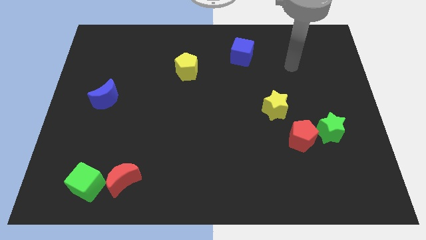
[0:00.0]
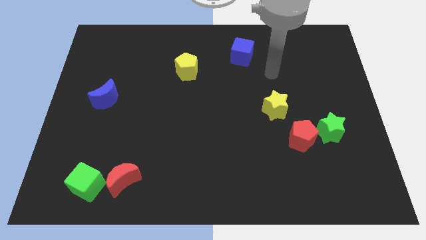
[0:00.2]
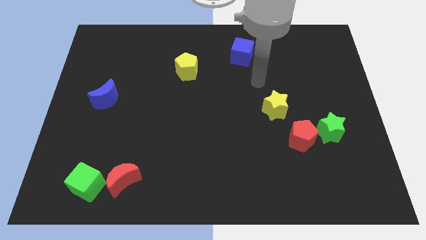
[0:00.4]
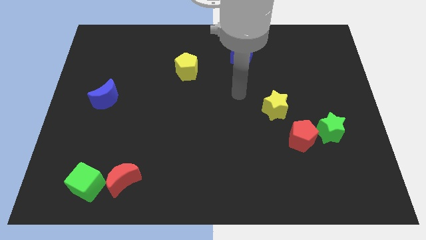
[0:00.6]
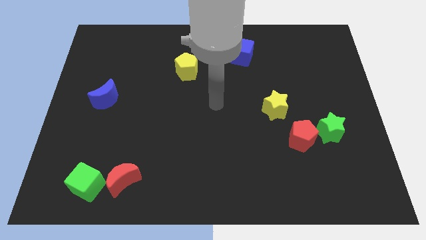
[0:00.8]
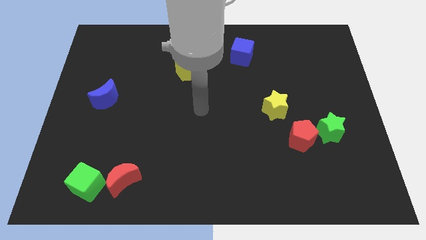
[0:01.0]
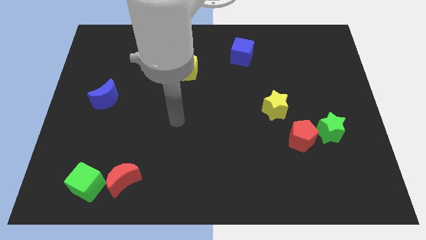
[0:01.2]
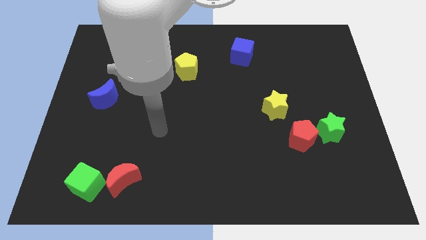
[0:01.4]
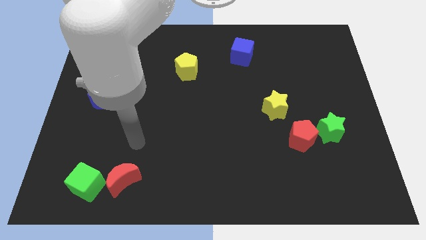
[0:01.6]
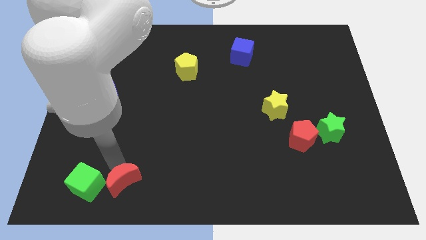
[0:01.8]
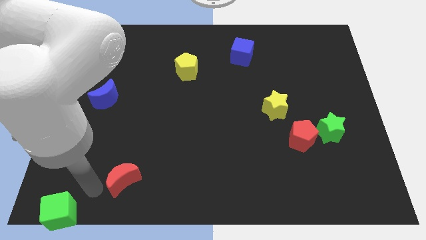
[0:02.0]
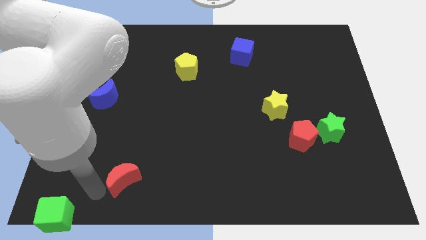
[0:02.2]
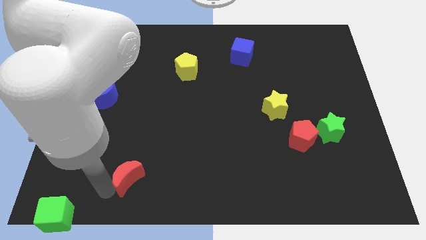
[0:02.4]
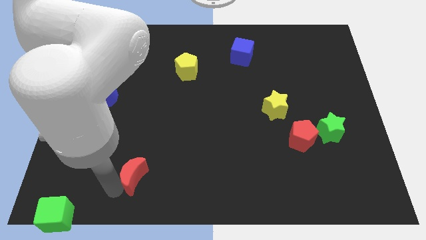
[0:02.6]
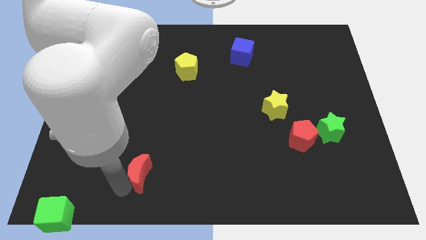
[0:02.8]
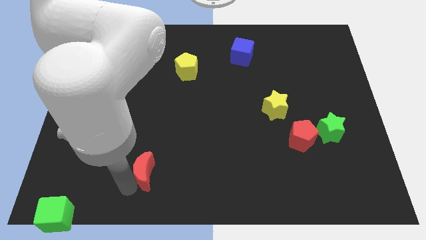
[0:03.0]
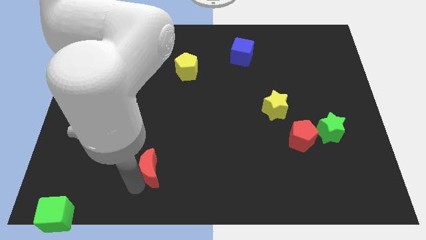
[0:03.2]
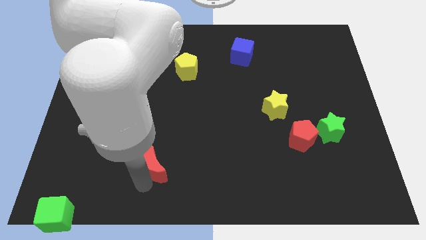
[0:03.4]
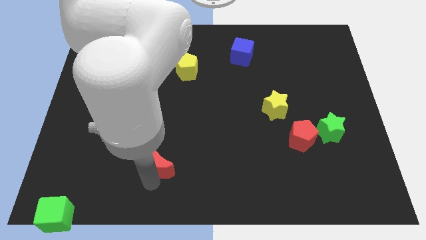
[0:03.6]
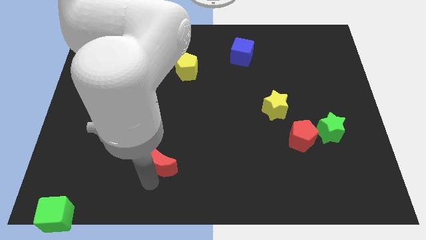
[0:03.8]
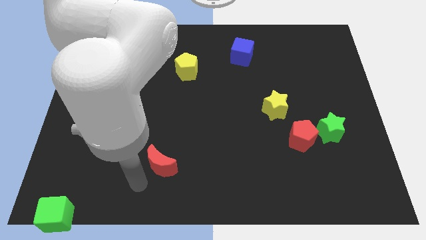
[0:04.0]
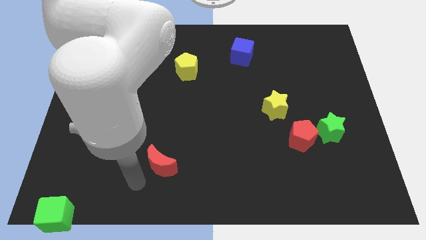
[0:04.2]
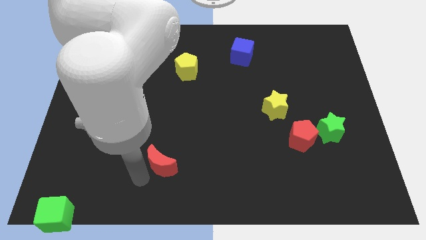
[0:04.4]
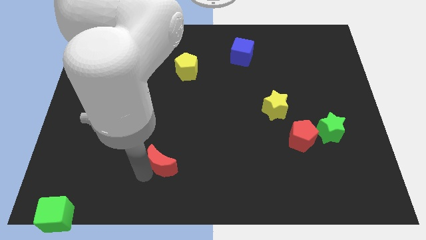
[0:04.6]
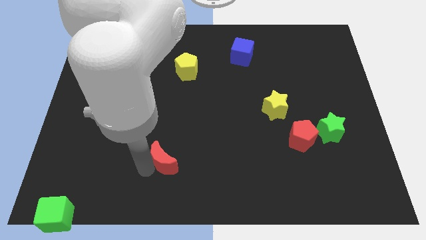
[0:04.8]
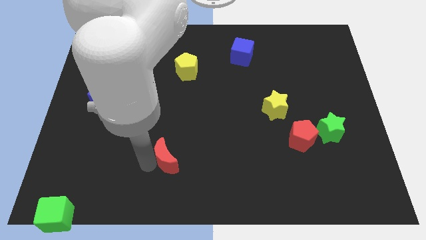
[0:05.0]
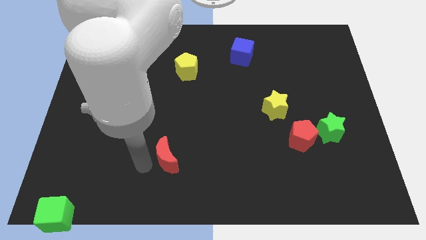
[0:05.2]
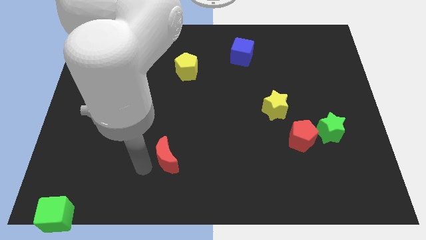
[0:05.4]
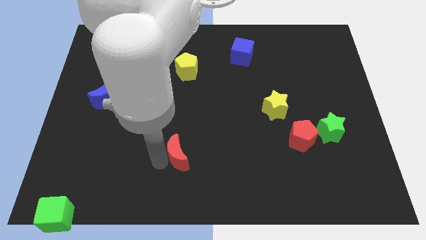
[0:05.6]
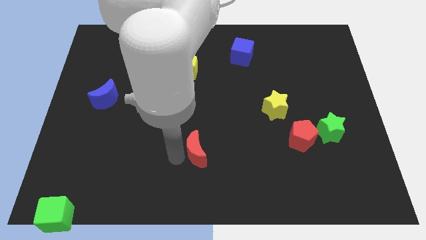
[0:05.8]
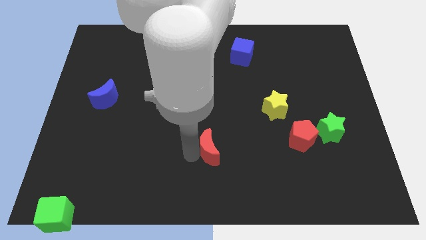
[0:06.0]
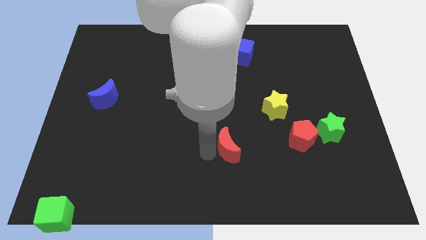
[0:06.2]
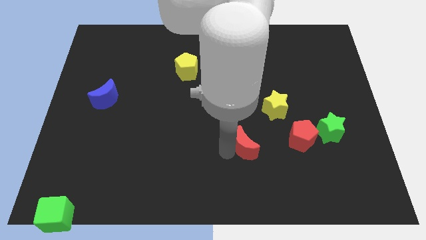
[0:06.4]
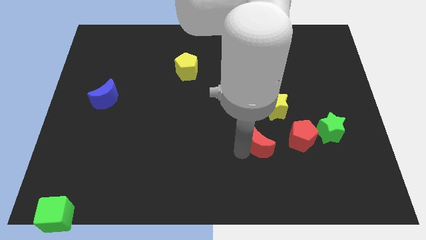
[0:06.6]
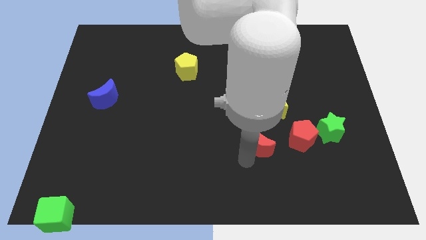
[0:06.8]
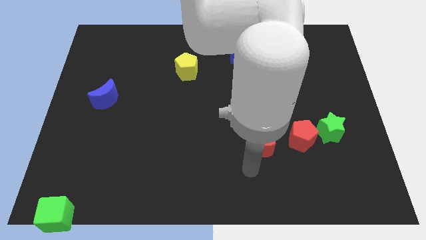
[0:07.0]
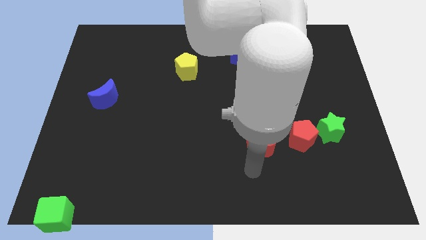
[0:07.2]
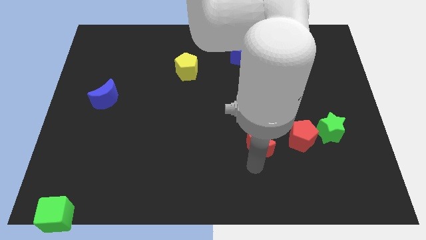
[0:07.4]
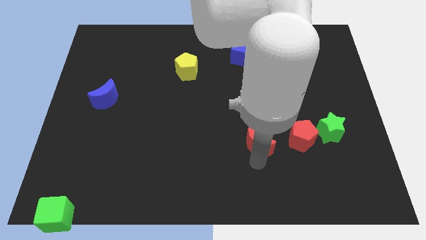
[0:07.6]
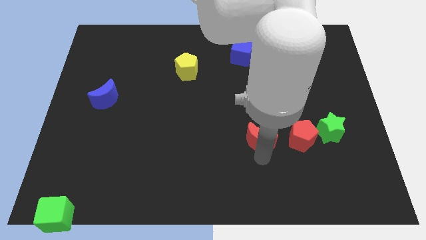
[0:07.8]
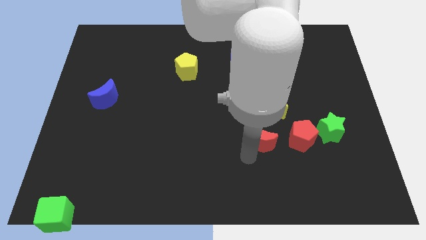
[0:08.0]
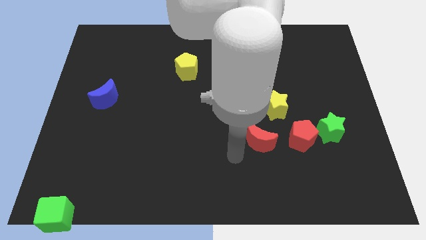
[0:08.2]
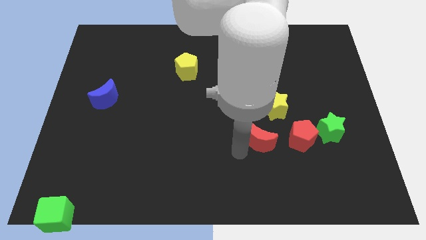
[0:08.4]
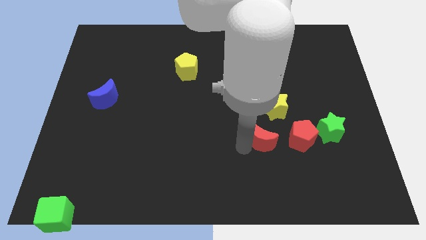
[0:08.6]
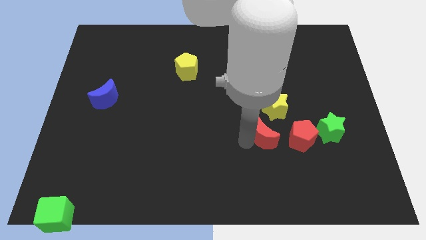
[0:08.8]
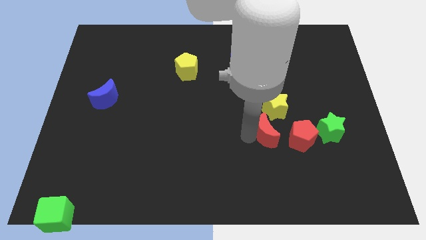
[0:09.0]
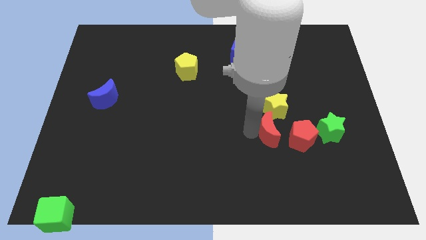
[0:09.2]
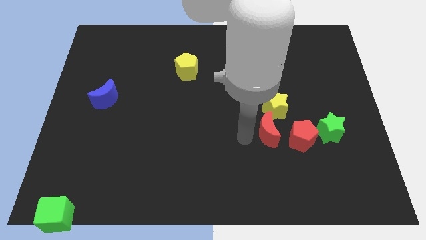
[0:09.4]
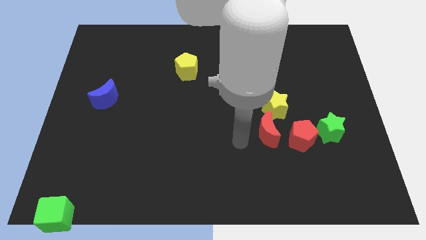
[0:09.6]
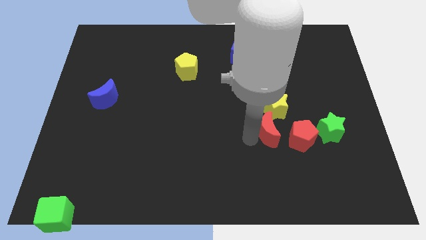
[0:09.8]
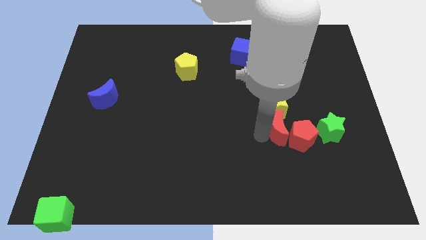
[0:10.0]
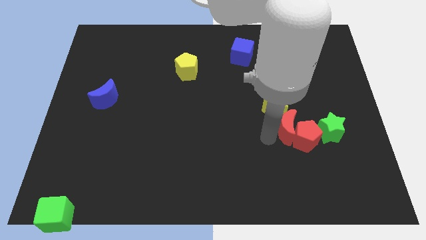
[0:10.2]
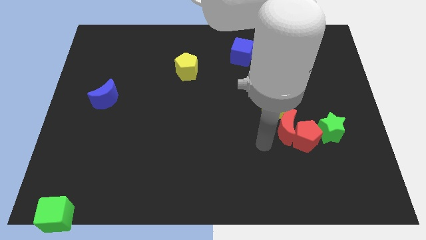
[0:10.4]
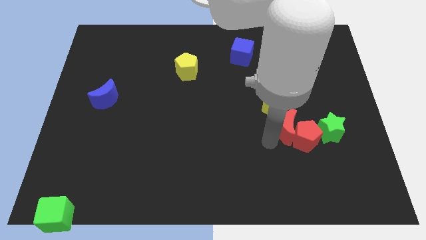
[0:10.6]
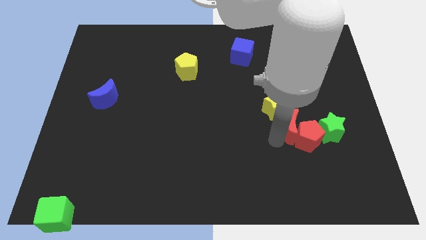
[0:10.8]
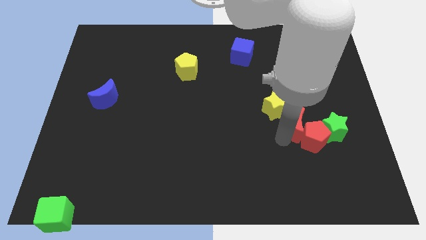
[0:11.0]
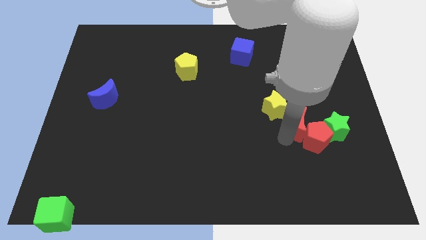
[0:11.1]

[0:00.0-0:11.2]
slide the red moon just right of the yellow star

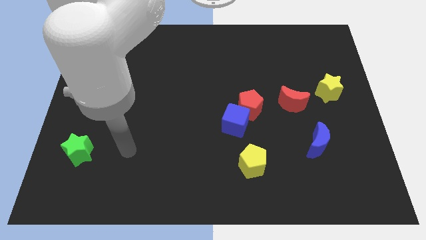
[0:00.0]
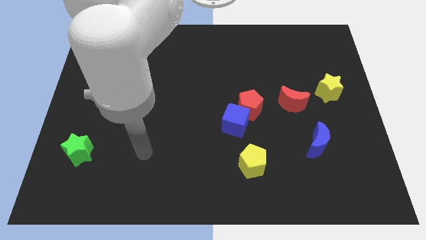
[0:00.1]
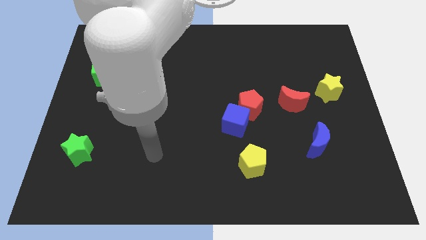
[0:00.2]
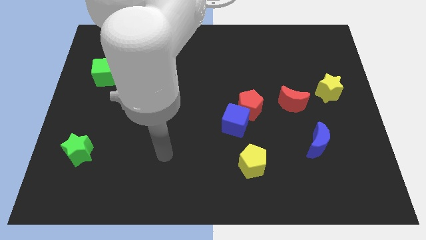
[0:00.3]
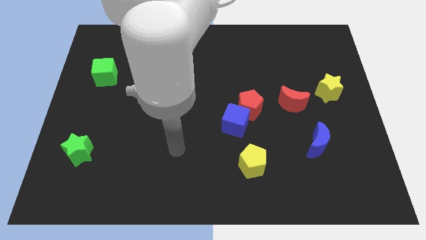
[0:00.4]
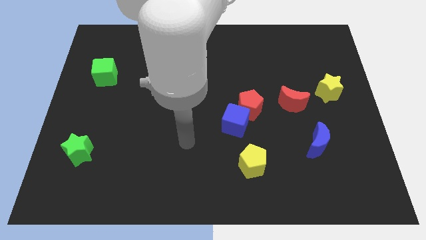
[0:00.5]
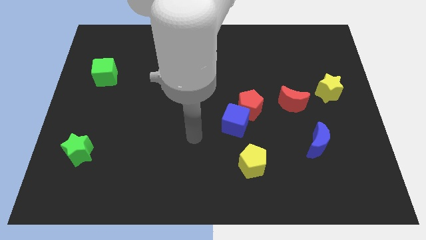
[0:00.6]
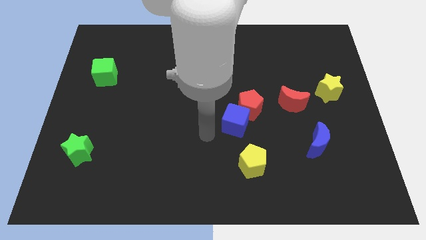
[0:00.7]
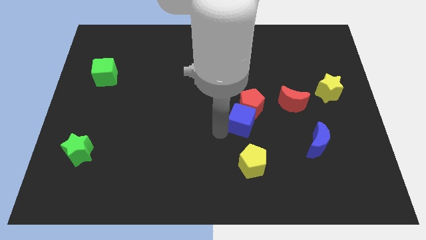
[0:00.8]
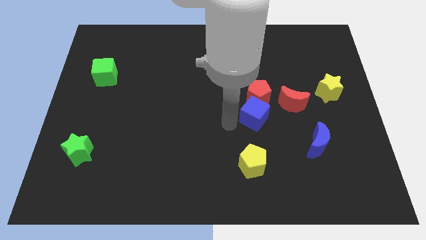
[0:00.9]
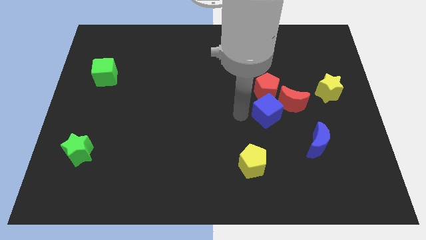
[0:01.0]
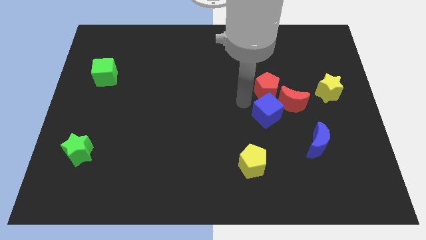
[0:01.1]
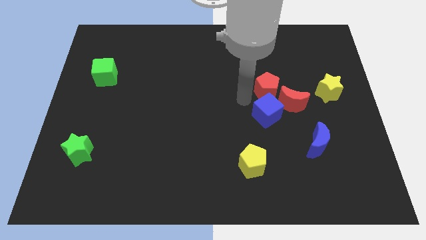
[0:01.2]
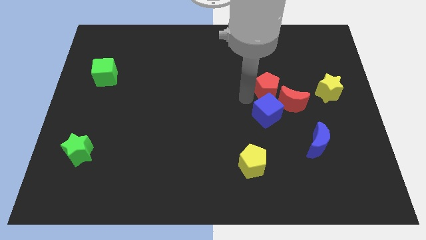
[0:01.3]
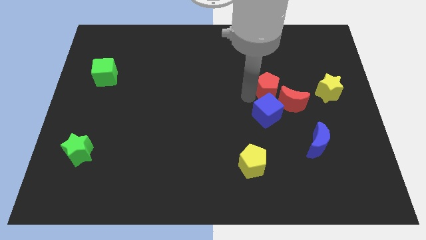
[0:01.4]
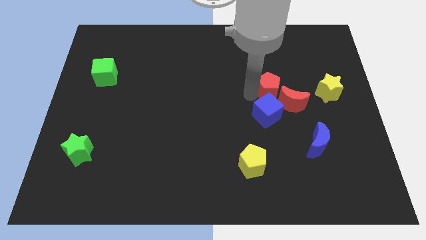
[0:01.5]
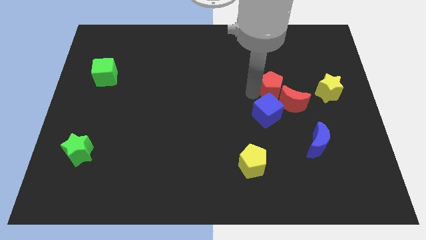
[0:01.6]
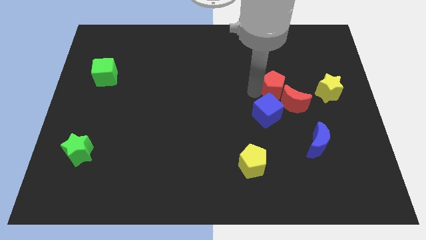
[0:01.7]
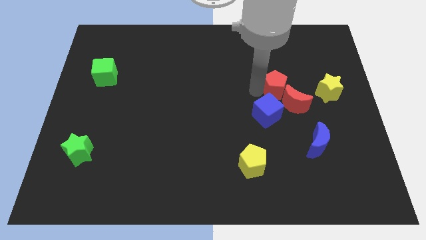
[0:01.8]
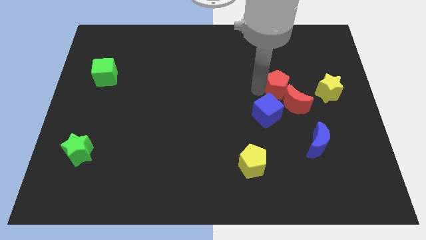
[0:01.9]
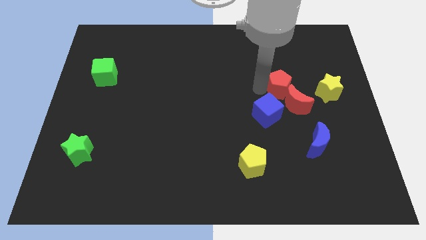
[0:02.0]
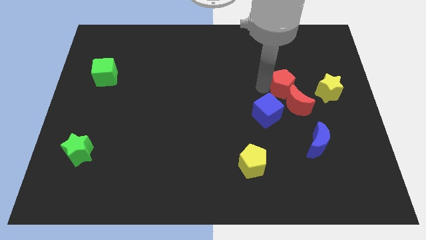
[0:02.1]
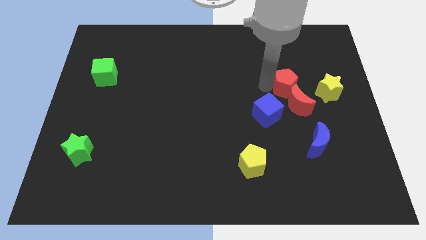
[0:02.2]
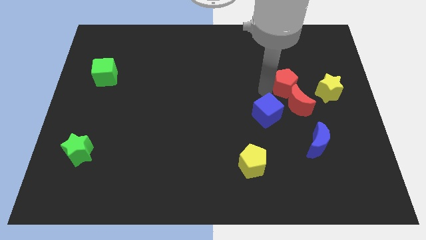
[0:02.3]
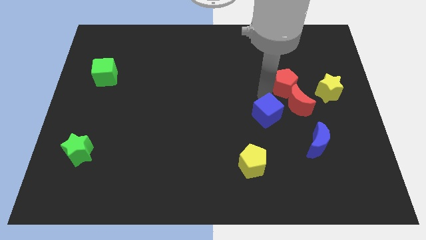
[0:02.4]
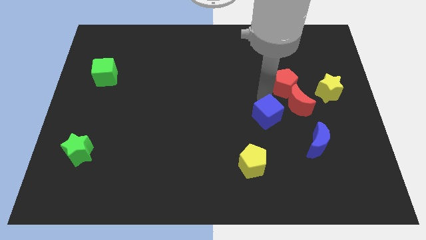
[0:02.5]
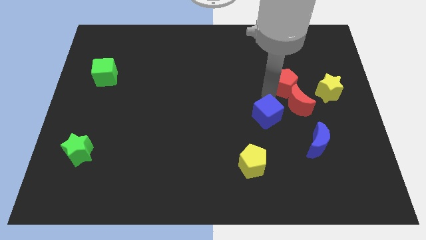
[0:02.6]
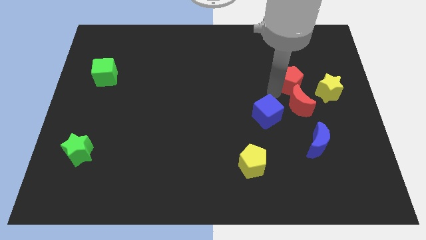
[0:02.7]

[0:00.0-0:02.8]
put the red pentagon to the top left of the yellow star
